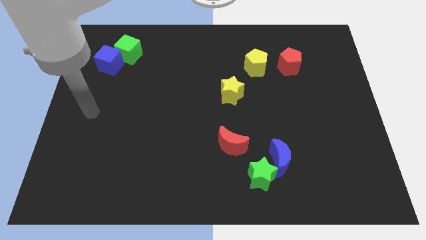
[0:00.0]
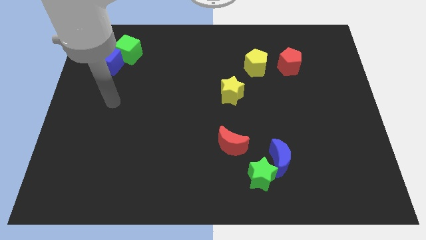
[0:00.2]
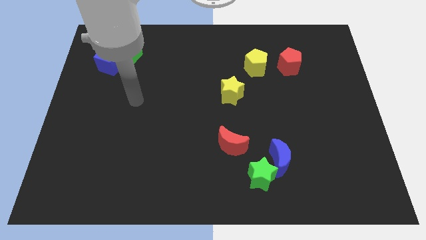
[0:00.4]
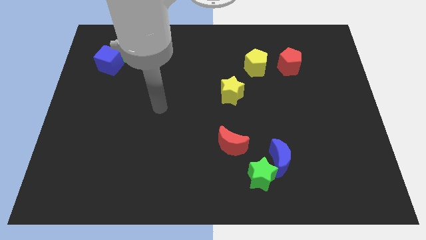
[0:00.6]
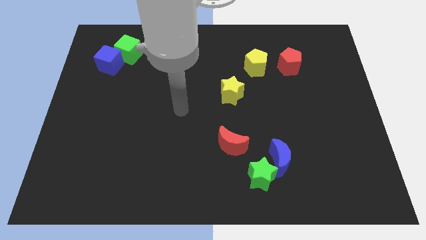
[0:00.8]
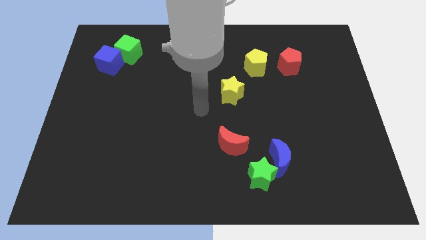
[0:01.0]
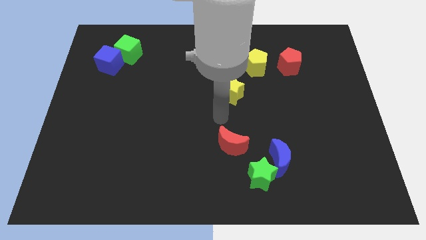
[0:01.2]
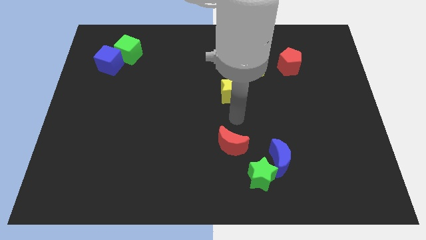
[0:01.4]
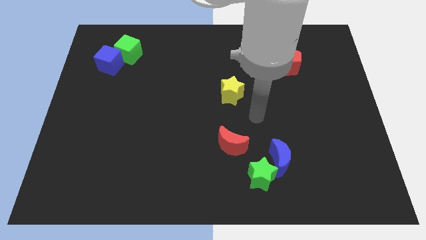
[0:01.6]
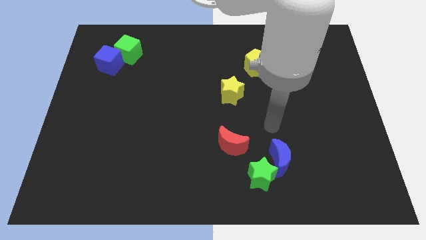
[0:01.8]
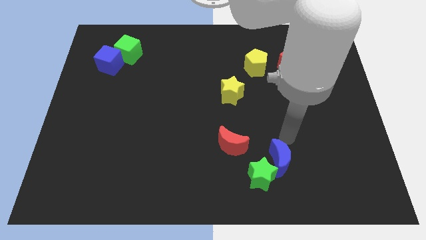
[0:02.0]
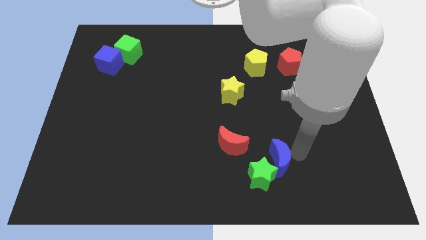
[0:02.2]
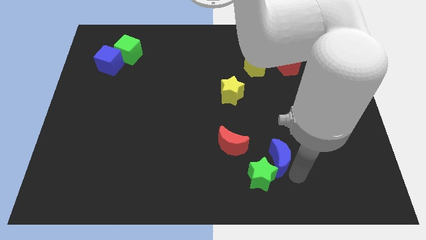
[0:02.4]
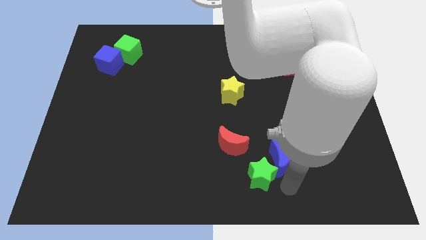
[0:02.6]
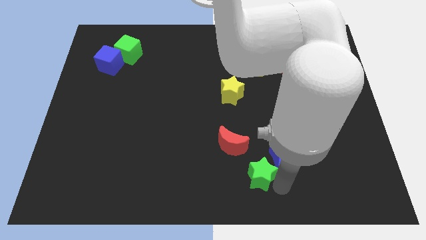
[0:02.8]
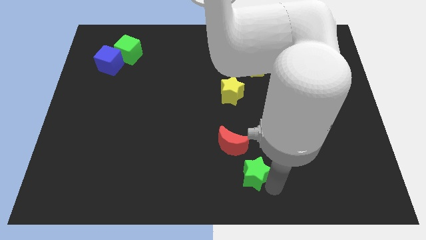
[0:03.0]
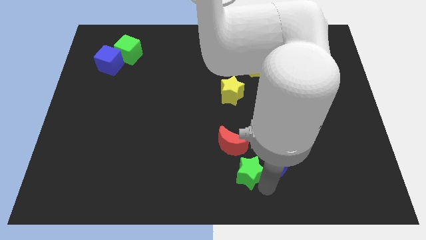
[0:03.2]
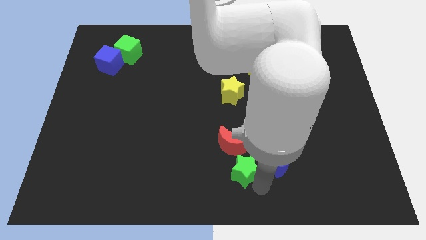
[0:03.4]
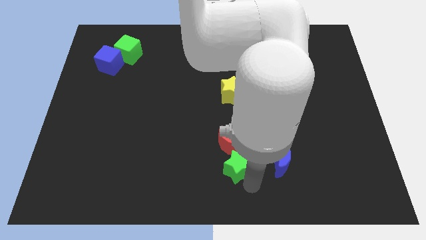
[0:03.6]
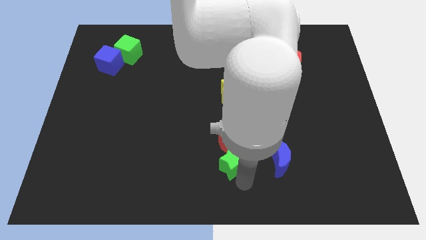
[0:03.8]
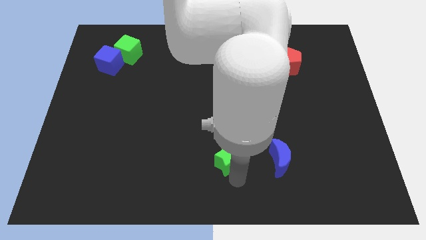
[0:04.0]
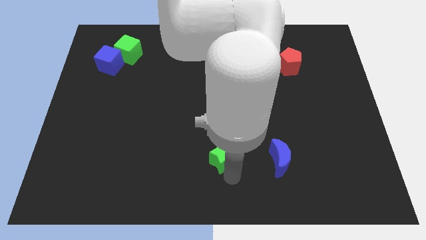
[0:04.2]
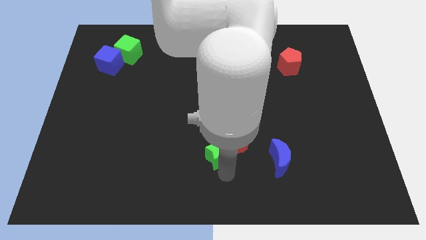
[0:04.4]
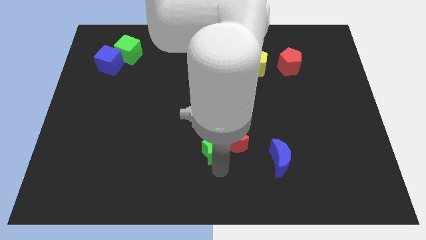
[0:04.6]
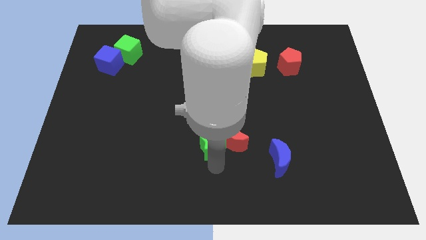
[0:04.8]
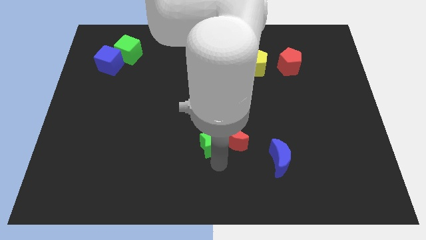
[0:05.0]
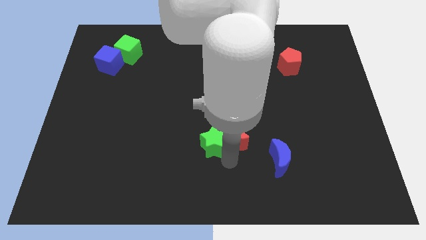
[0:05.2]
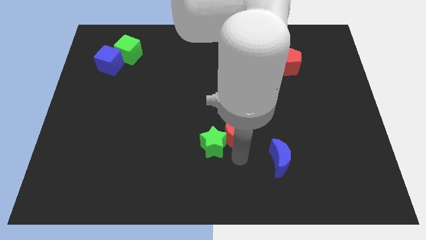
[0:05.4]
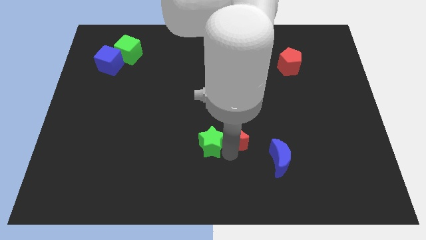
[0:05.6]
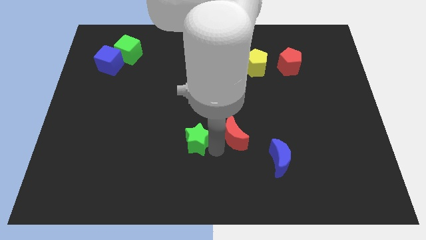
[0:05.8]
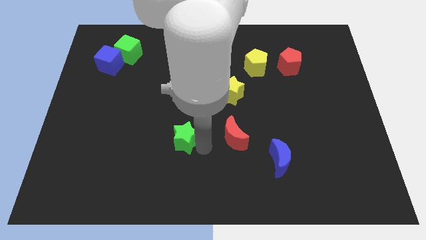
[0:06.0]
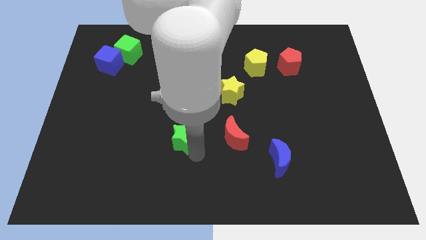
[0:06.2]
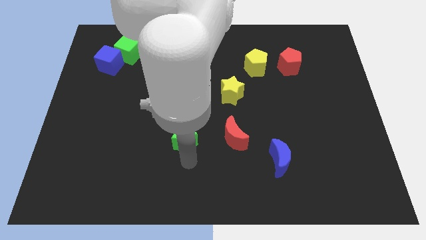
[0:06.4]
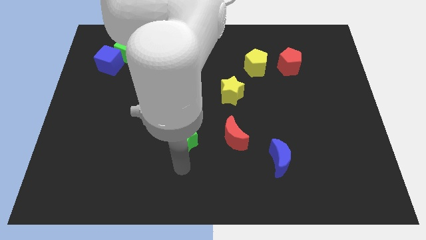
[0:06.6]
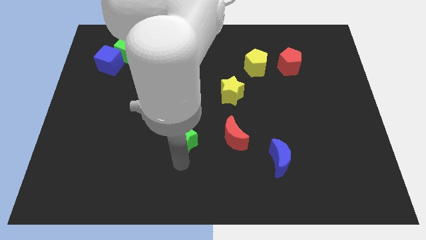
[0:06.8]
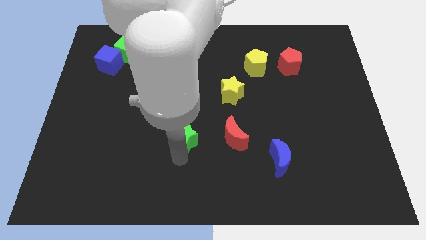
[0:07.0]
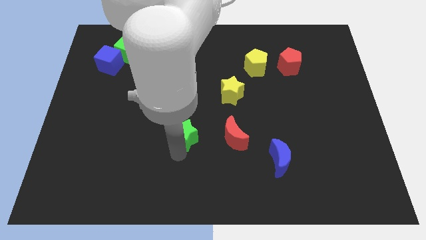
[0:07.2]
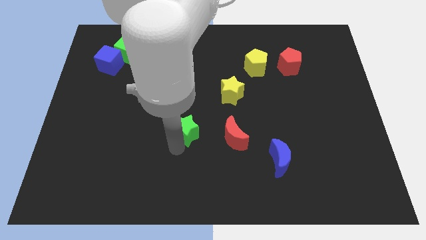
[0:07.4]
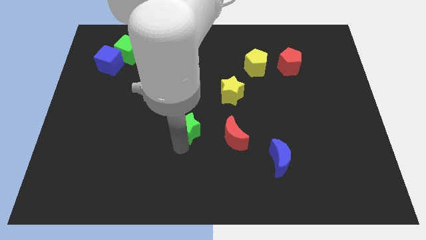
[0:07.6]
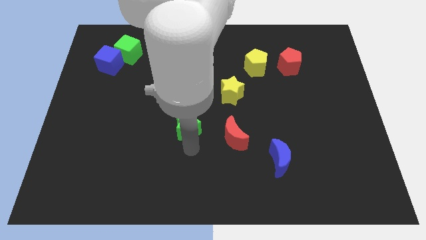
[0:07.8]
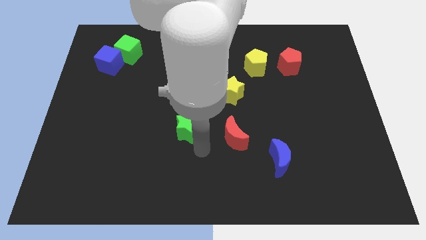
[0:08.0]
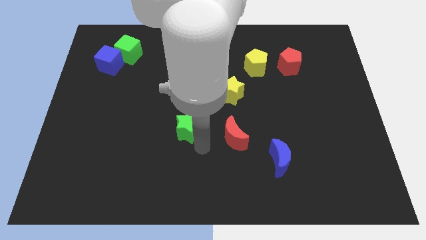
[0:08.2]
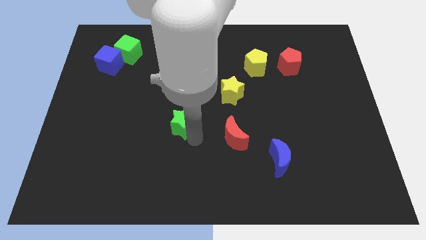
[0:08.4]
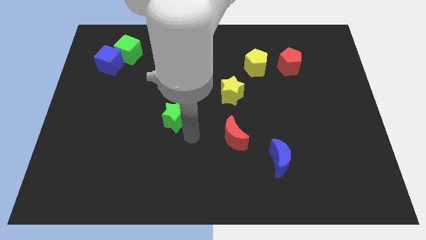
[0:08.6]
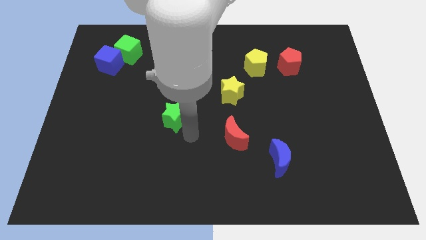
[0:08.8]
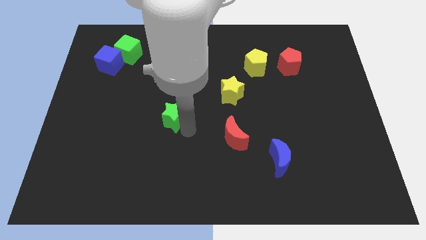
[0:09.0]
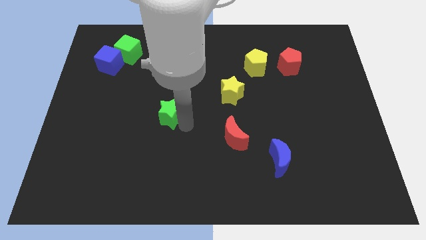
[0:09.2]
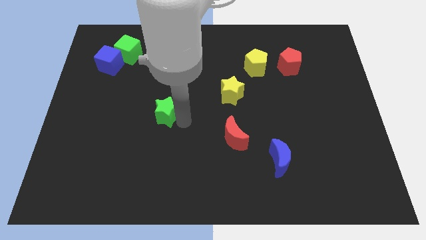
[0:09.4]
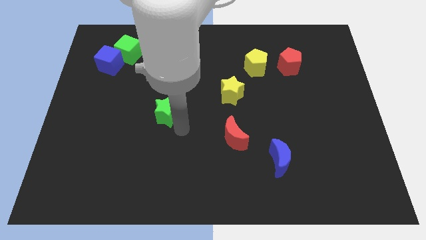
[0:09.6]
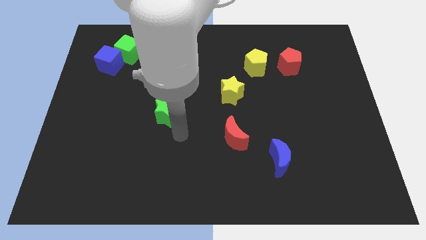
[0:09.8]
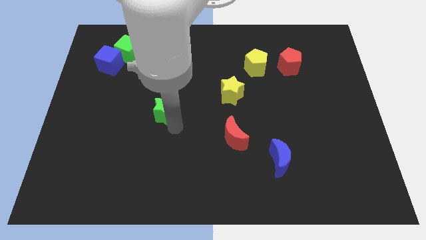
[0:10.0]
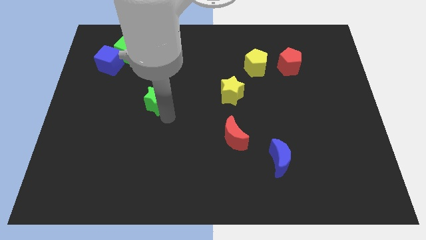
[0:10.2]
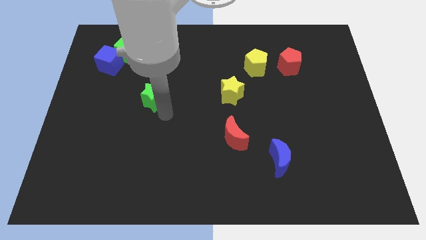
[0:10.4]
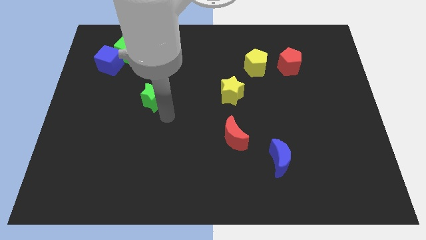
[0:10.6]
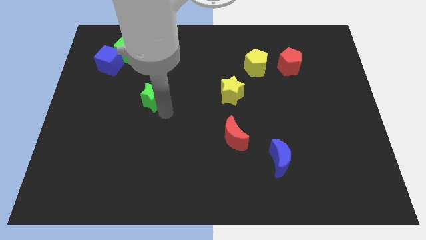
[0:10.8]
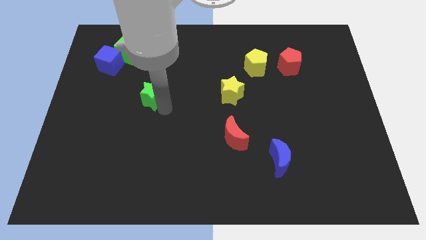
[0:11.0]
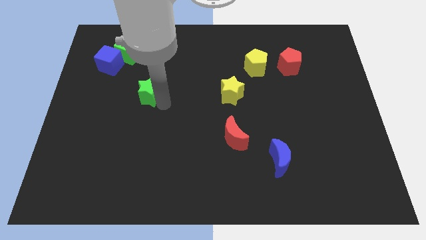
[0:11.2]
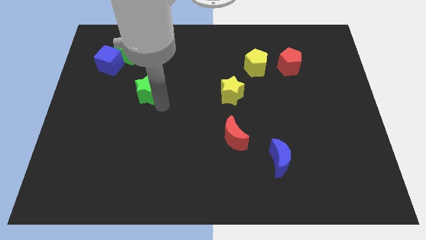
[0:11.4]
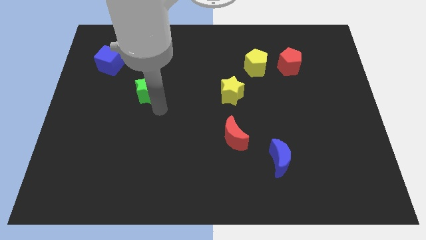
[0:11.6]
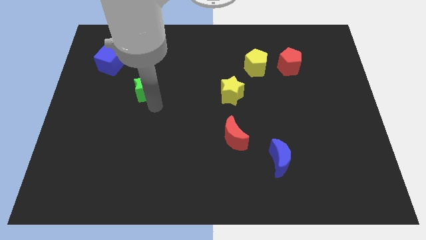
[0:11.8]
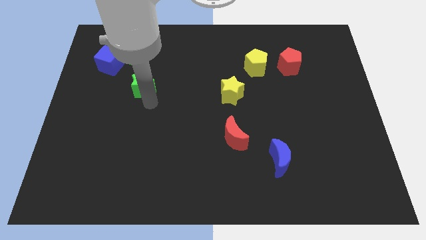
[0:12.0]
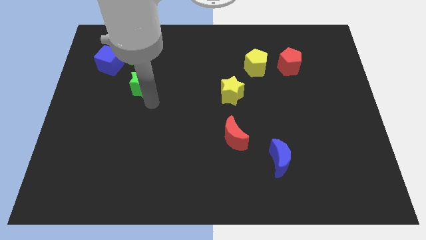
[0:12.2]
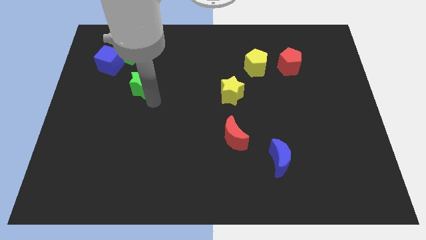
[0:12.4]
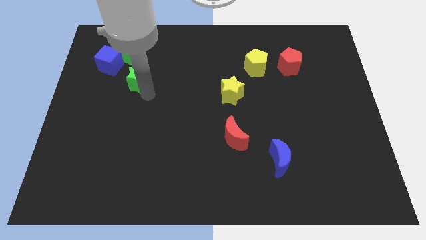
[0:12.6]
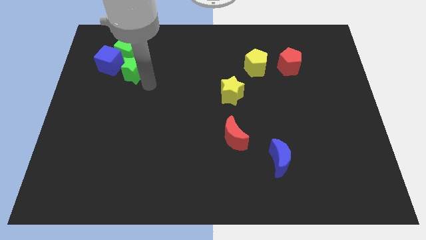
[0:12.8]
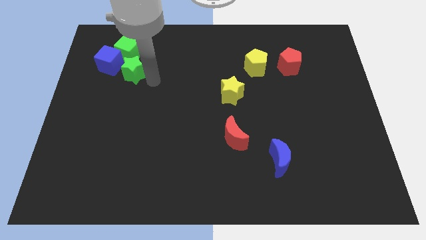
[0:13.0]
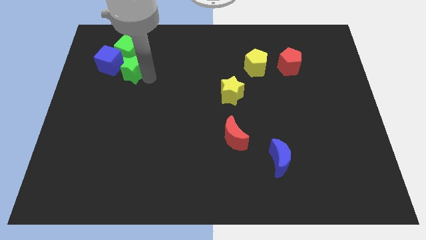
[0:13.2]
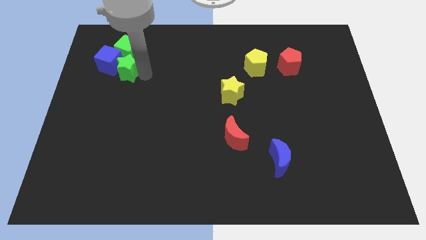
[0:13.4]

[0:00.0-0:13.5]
put the green star close to the blue cube
